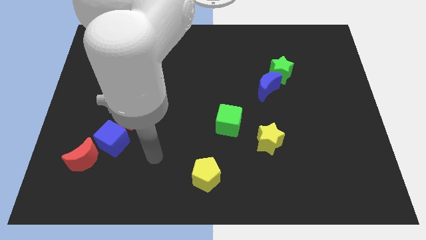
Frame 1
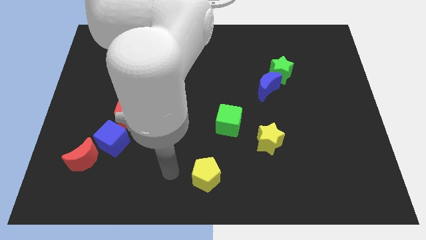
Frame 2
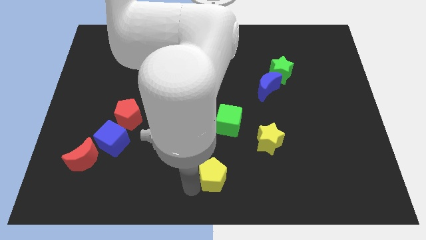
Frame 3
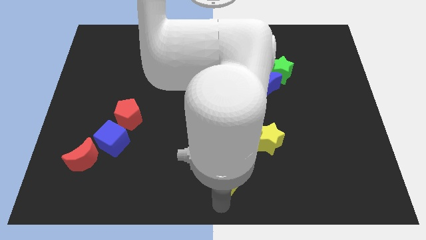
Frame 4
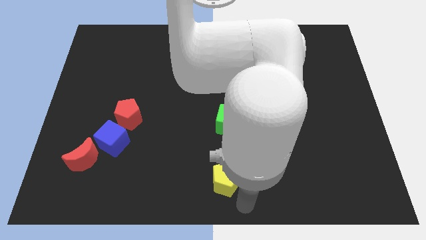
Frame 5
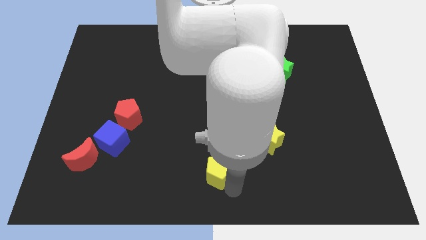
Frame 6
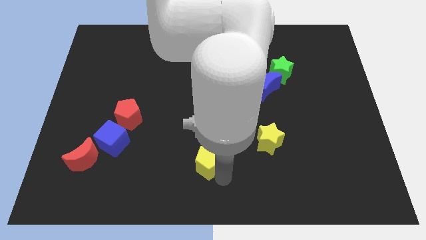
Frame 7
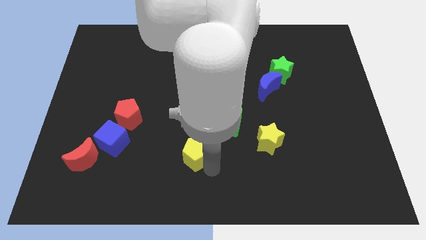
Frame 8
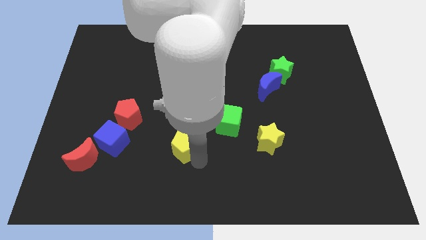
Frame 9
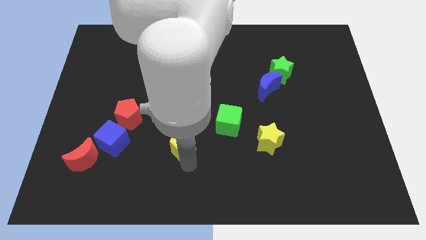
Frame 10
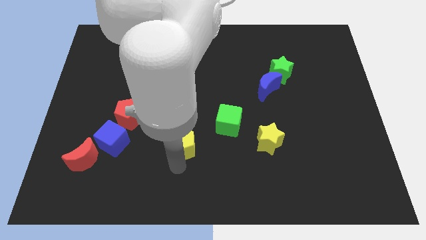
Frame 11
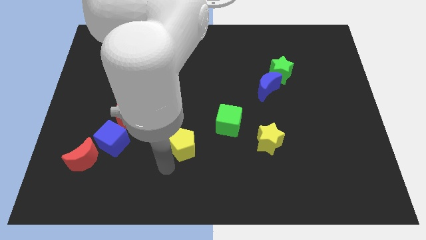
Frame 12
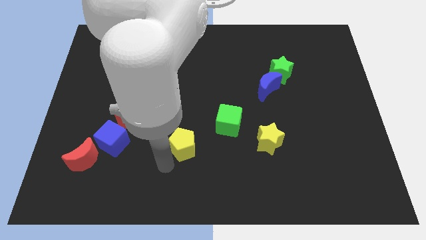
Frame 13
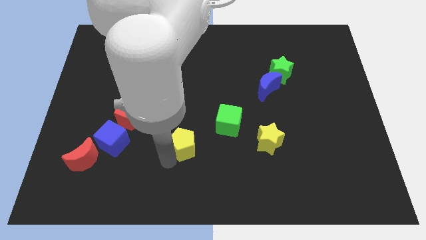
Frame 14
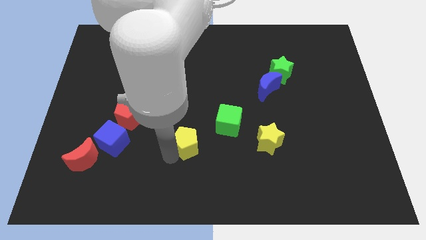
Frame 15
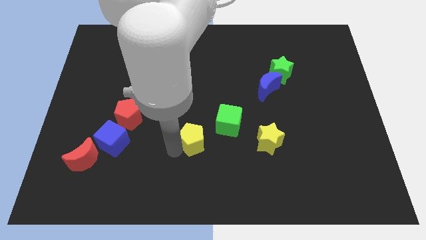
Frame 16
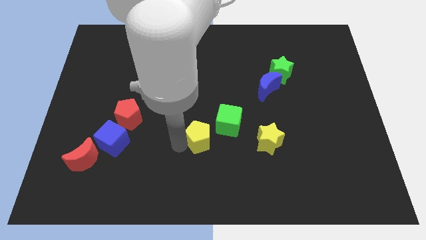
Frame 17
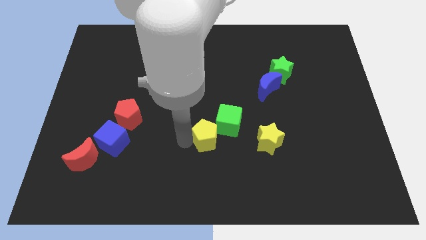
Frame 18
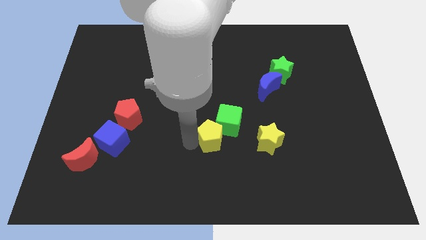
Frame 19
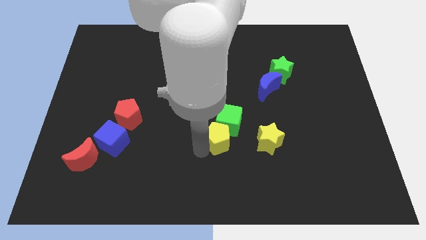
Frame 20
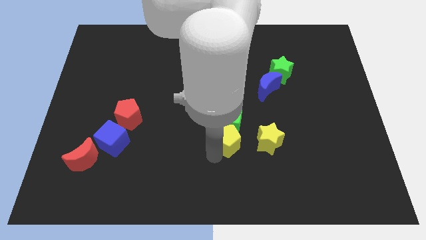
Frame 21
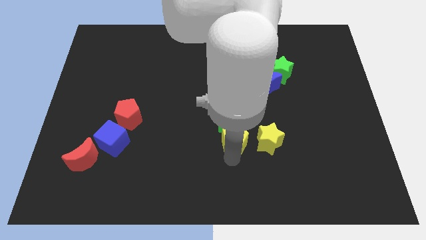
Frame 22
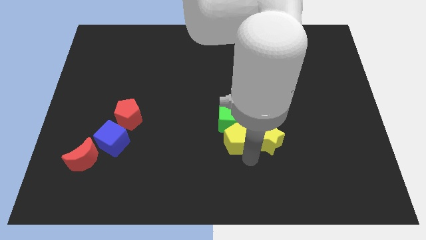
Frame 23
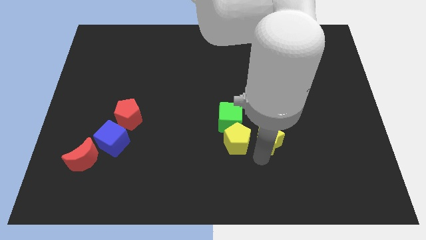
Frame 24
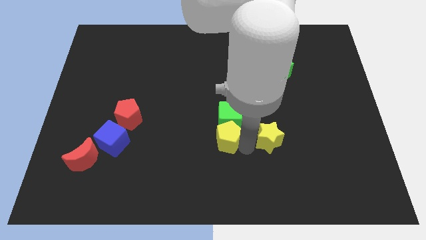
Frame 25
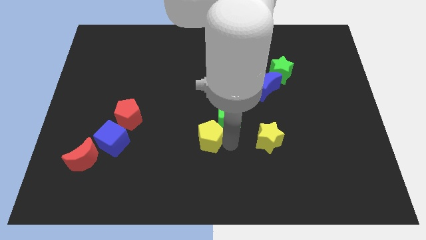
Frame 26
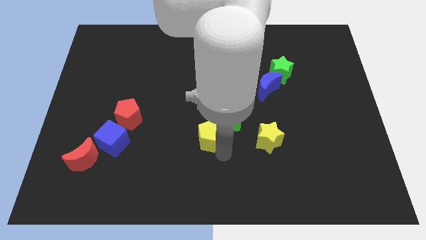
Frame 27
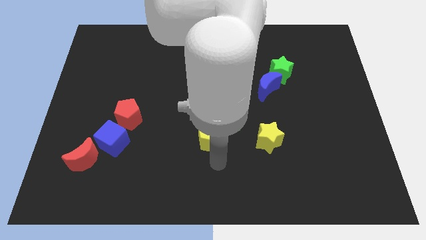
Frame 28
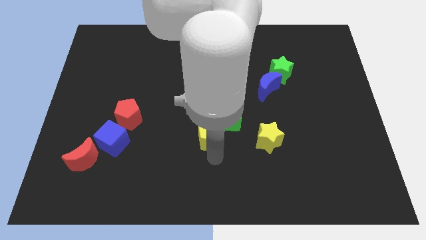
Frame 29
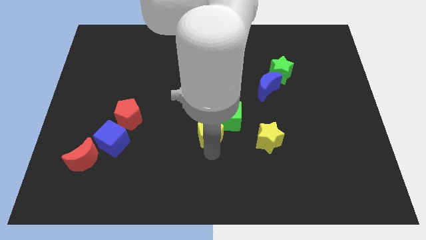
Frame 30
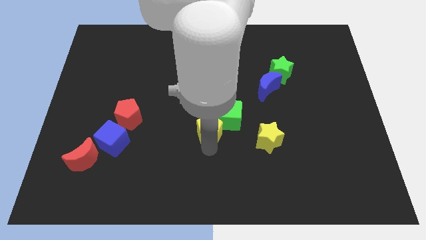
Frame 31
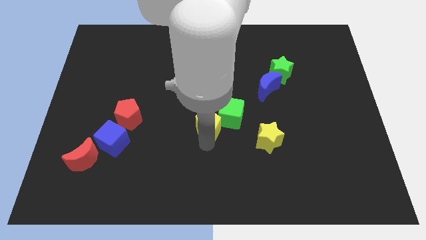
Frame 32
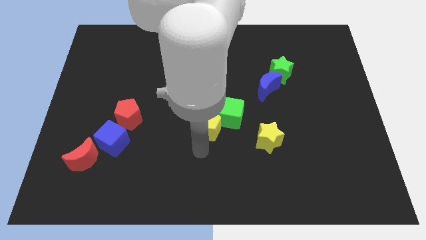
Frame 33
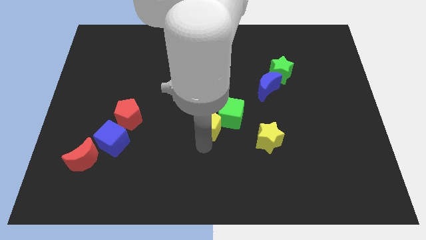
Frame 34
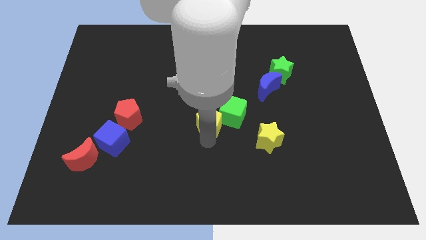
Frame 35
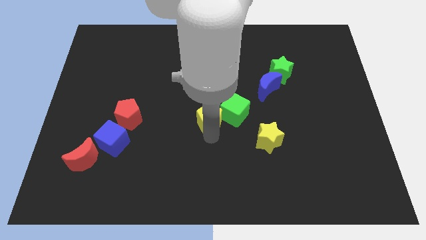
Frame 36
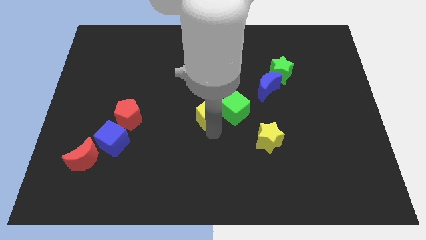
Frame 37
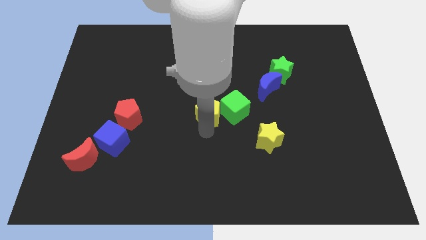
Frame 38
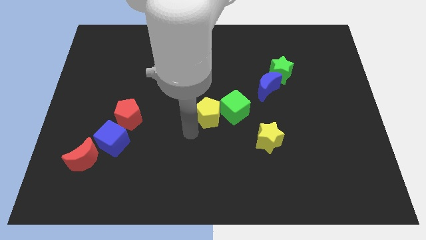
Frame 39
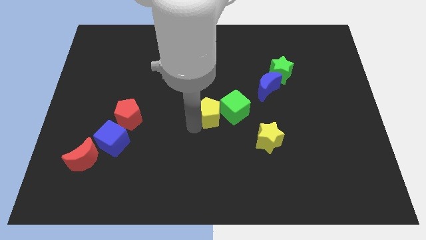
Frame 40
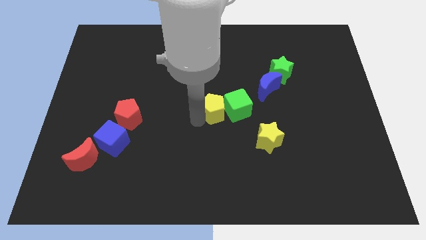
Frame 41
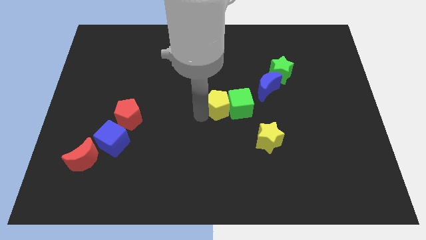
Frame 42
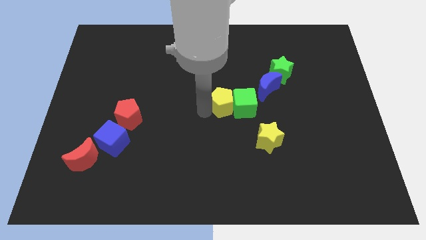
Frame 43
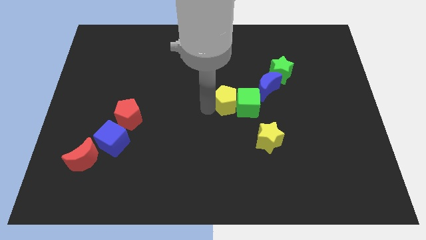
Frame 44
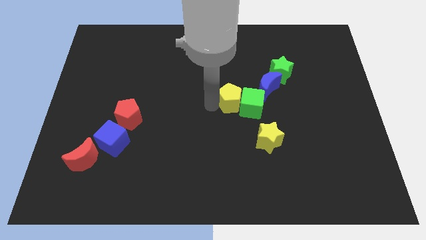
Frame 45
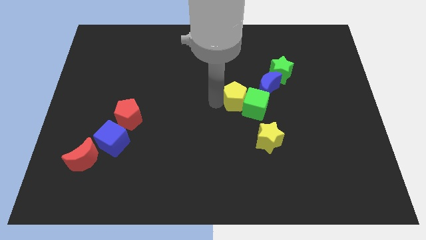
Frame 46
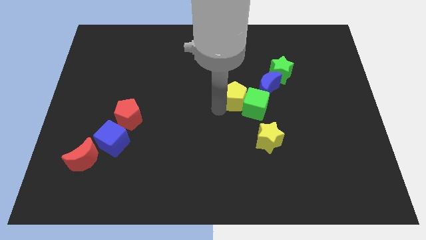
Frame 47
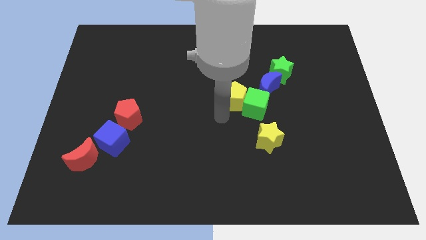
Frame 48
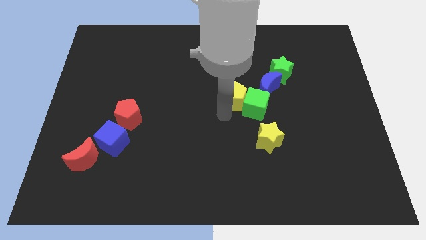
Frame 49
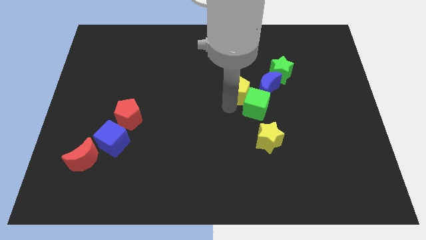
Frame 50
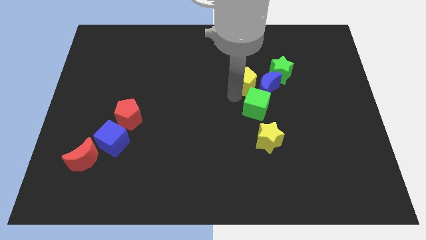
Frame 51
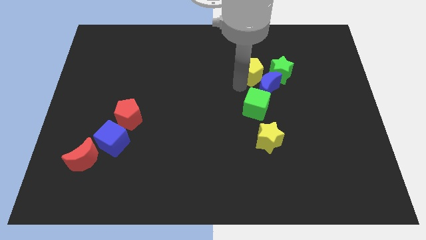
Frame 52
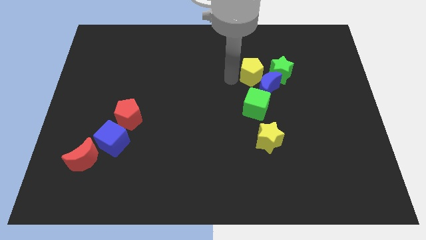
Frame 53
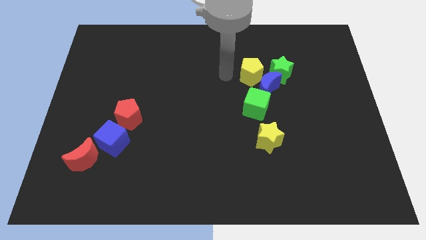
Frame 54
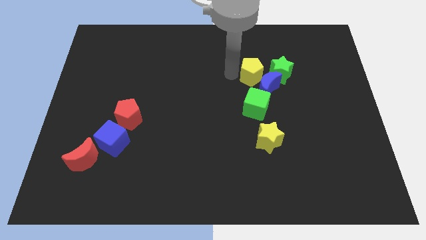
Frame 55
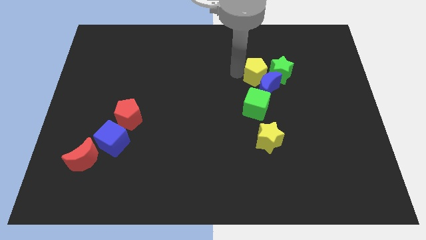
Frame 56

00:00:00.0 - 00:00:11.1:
push the yellow pentagon to the green star

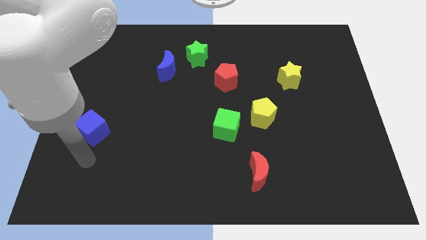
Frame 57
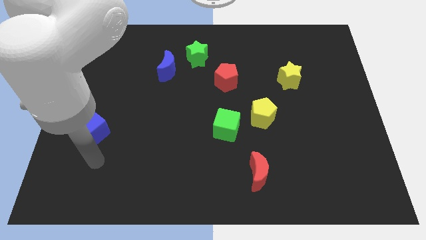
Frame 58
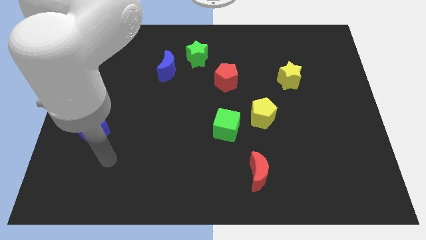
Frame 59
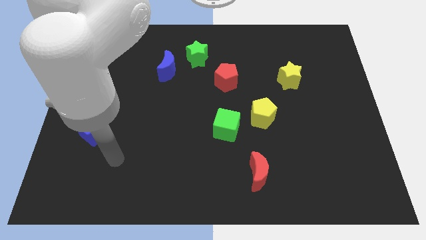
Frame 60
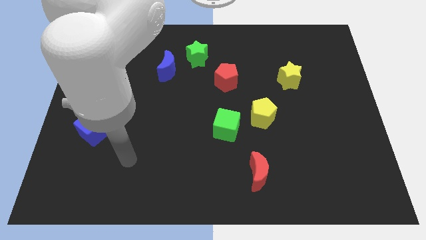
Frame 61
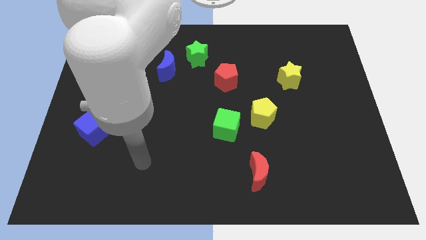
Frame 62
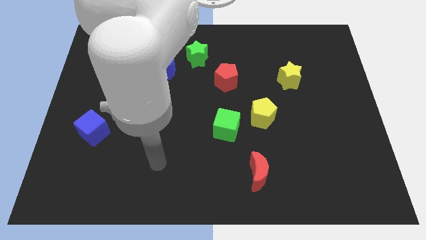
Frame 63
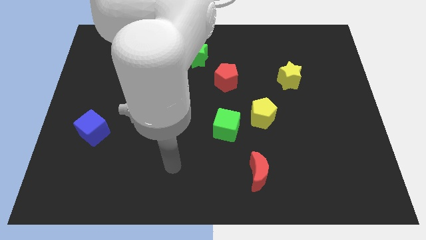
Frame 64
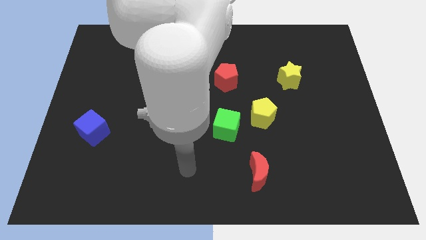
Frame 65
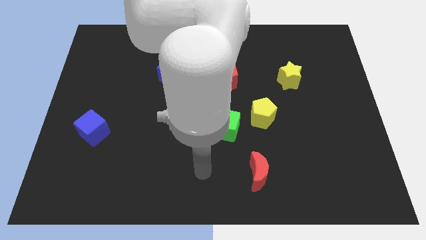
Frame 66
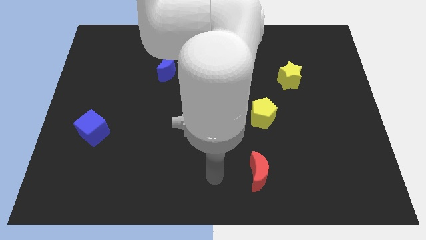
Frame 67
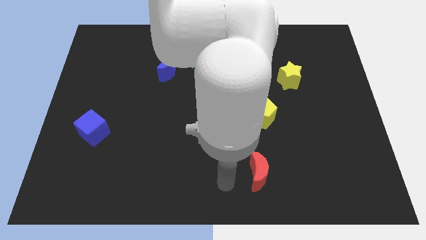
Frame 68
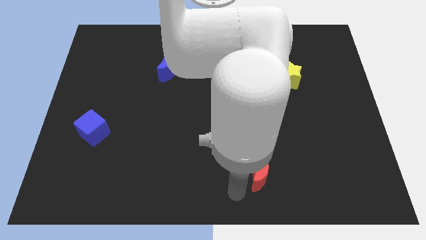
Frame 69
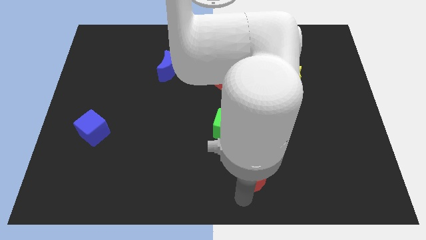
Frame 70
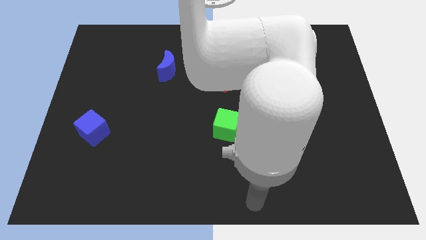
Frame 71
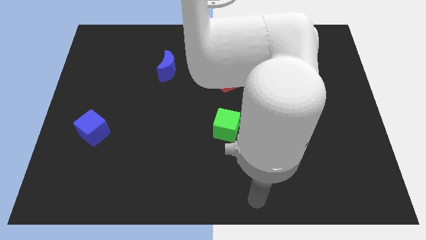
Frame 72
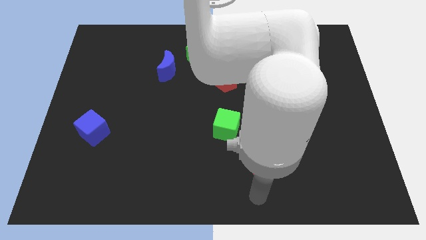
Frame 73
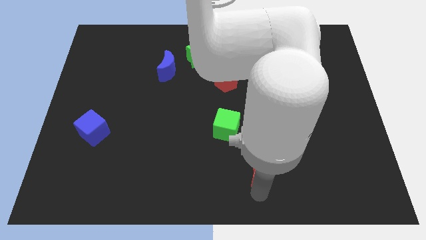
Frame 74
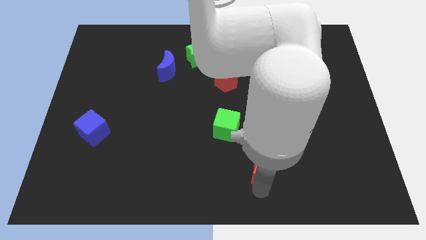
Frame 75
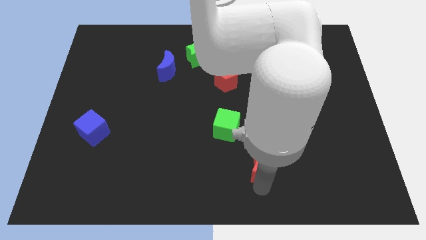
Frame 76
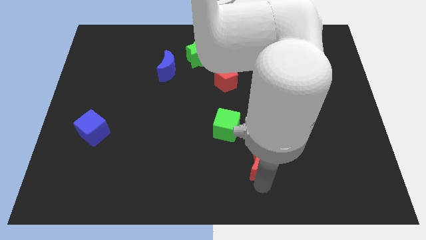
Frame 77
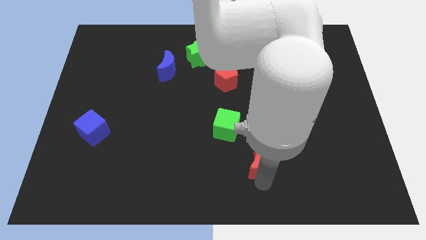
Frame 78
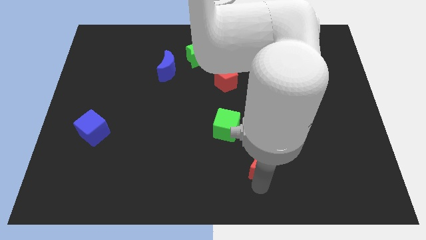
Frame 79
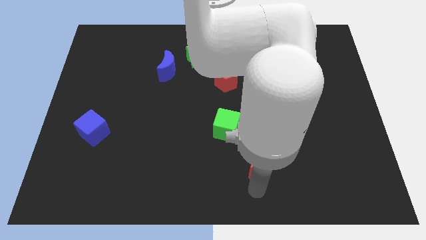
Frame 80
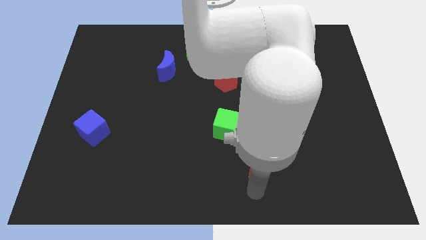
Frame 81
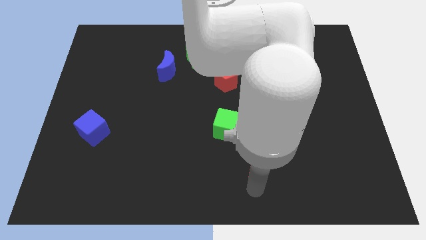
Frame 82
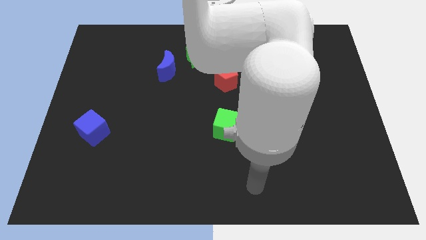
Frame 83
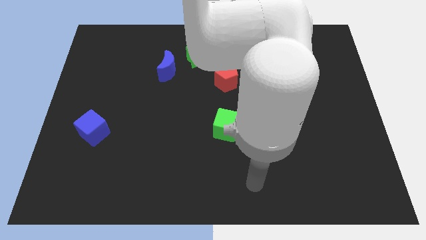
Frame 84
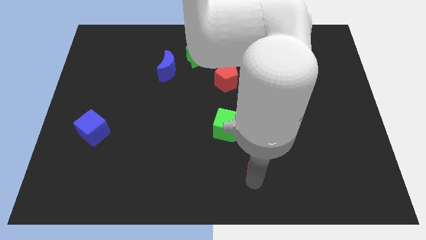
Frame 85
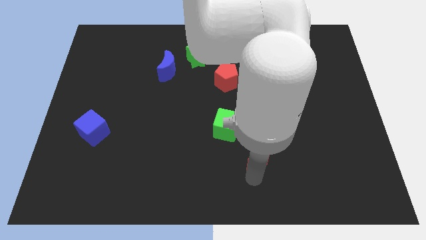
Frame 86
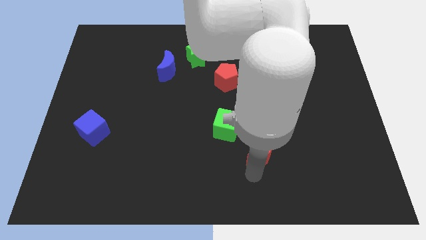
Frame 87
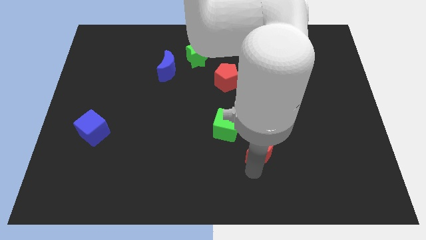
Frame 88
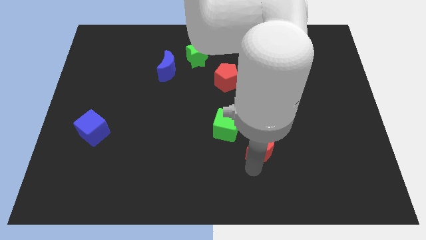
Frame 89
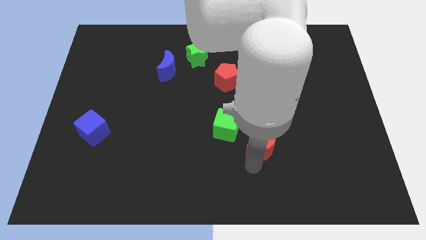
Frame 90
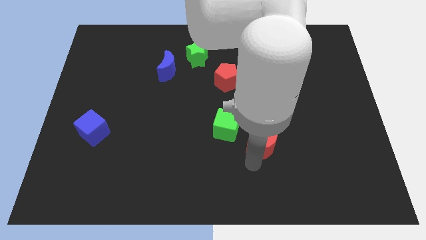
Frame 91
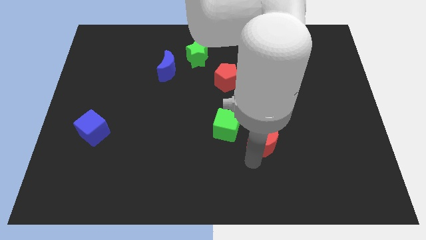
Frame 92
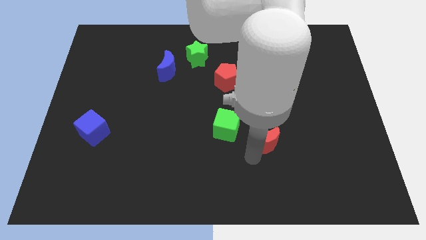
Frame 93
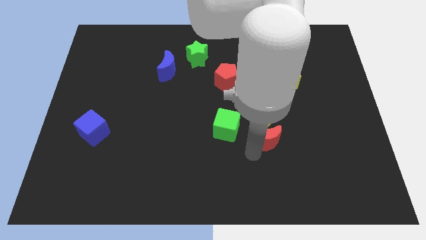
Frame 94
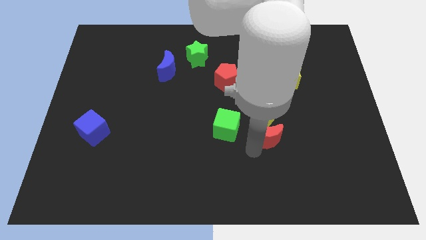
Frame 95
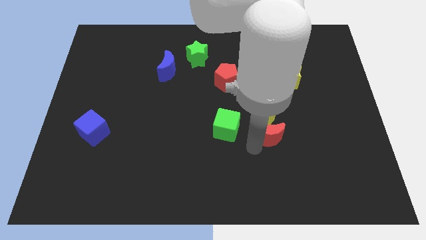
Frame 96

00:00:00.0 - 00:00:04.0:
put the red moon close to the yellow pentagon
